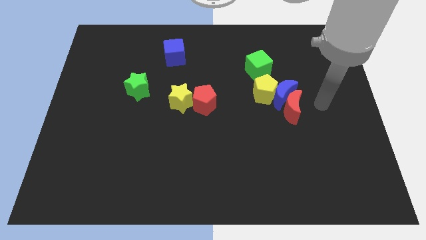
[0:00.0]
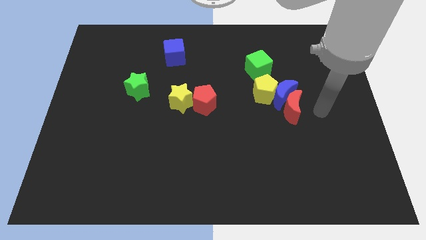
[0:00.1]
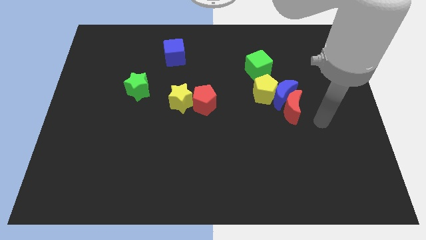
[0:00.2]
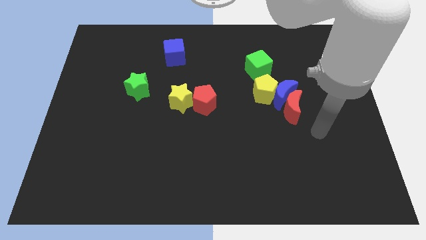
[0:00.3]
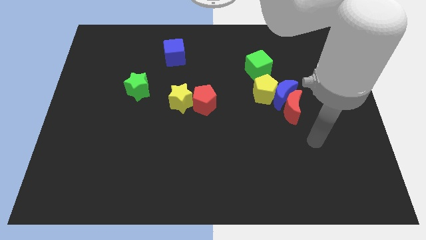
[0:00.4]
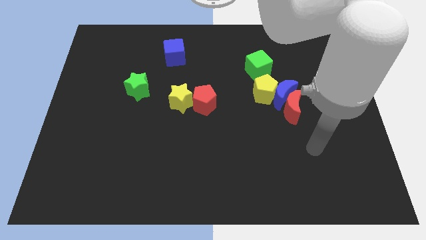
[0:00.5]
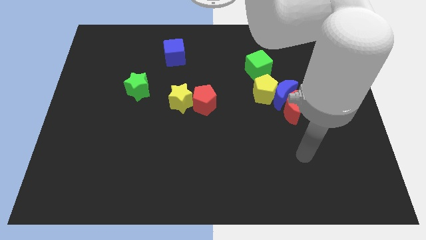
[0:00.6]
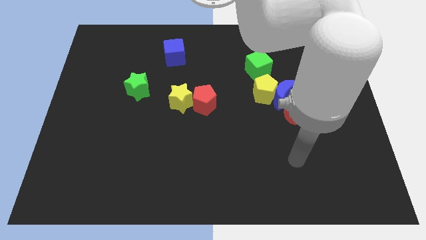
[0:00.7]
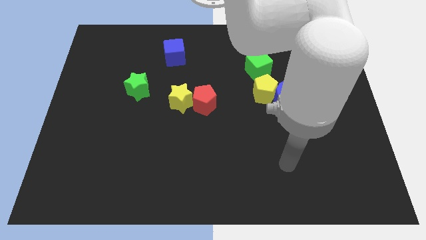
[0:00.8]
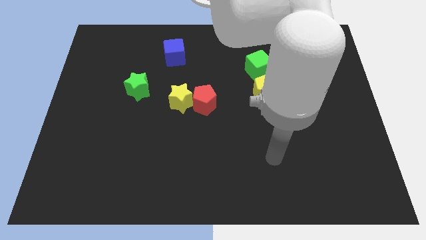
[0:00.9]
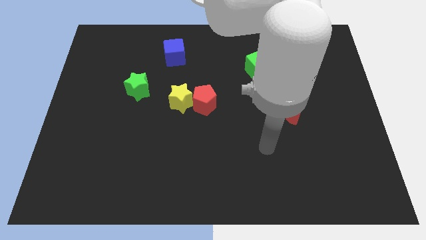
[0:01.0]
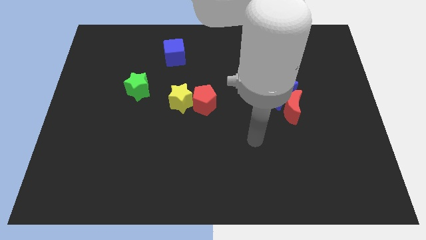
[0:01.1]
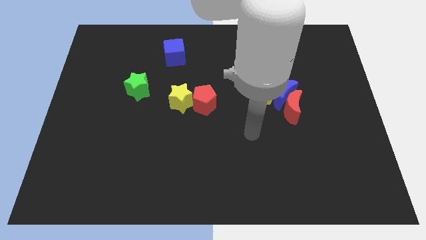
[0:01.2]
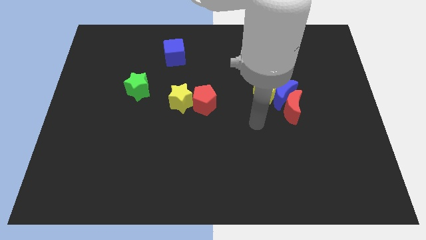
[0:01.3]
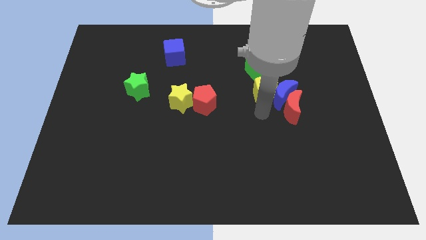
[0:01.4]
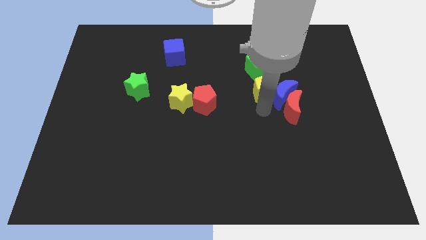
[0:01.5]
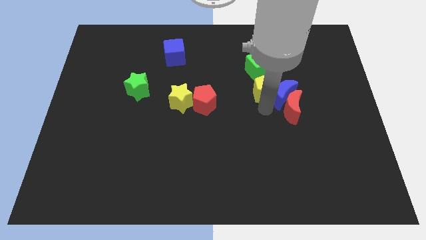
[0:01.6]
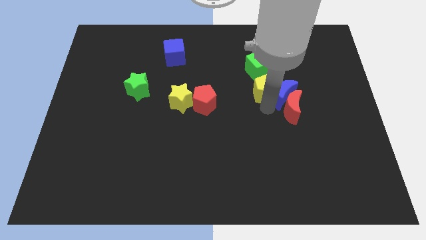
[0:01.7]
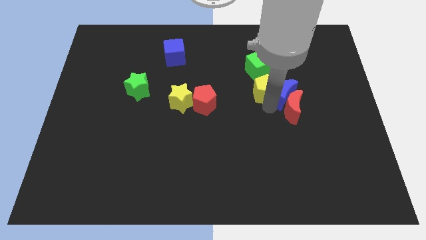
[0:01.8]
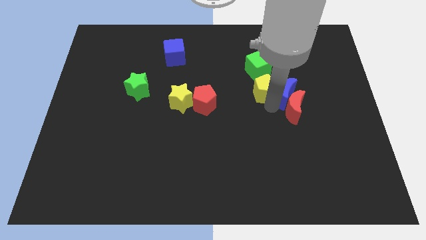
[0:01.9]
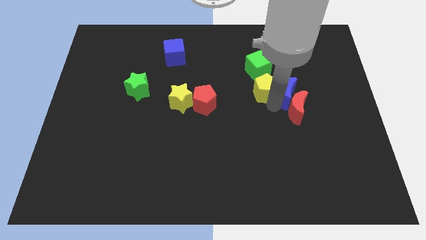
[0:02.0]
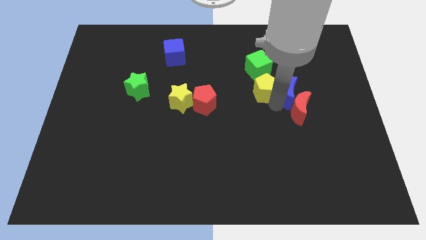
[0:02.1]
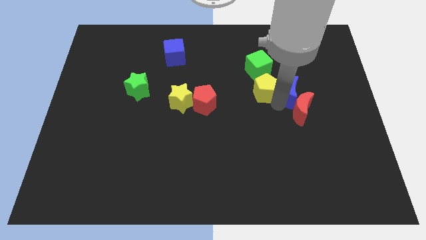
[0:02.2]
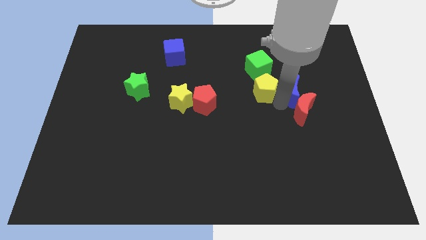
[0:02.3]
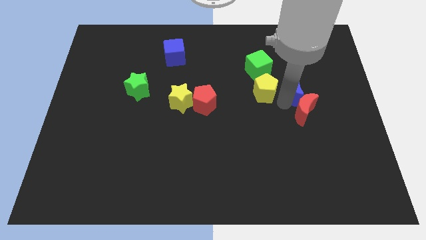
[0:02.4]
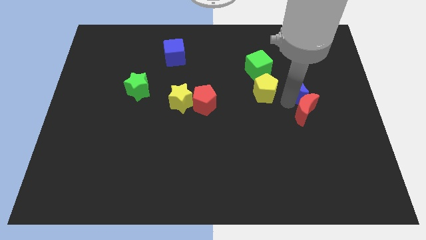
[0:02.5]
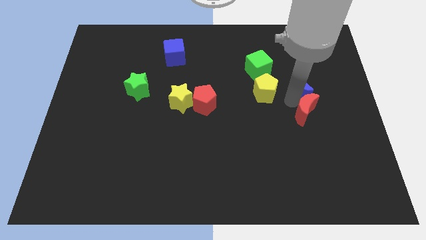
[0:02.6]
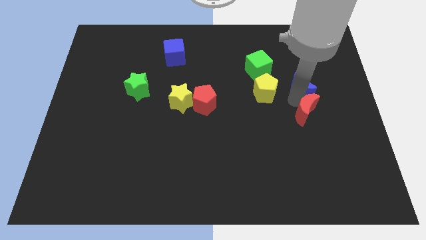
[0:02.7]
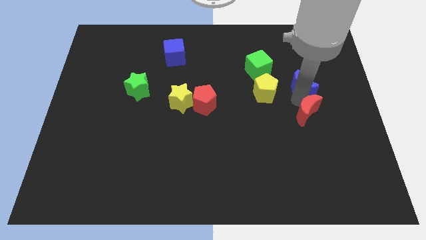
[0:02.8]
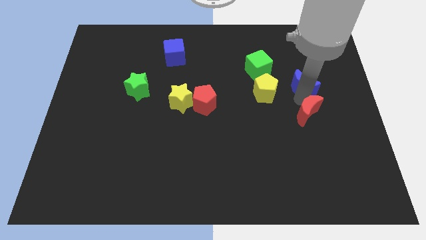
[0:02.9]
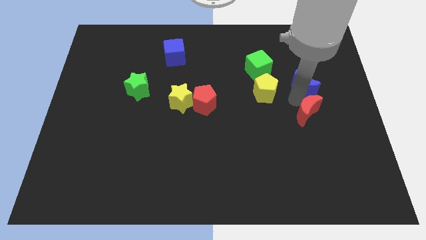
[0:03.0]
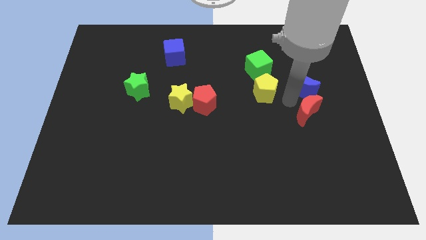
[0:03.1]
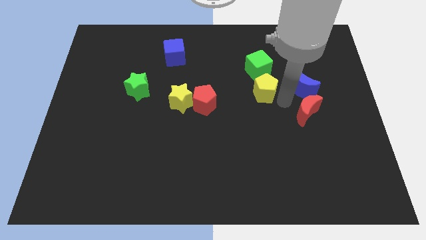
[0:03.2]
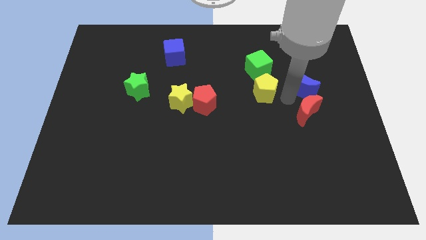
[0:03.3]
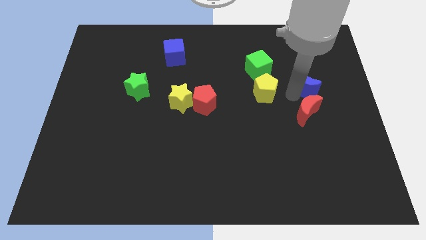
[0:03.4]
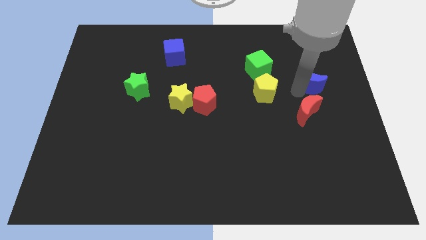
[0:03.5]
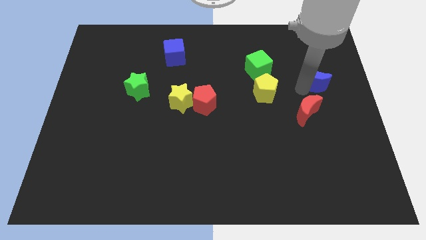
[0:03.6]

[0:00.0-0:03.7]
separate the blue moon from the red moon and yellow pentagon

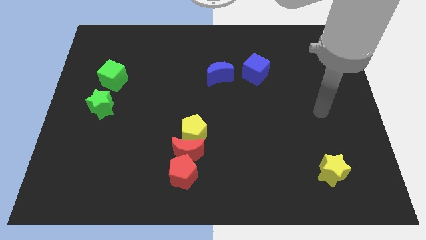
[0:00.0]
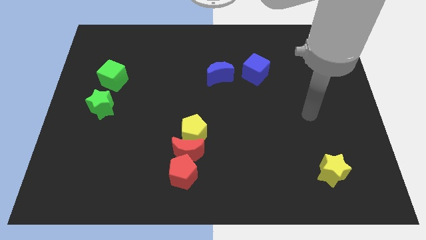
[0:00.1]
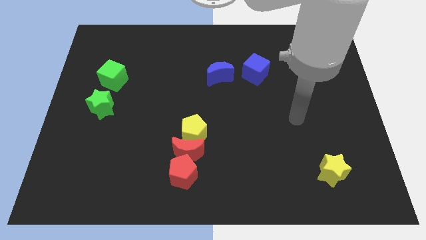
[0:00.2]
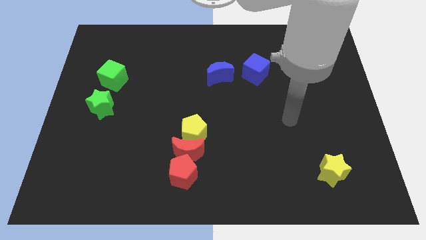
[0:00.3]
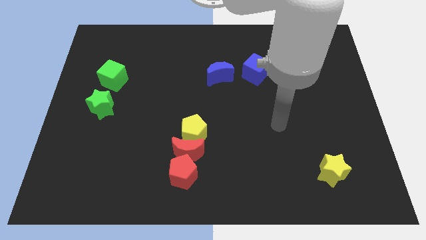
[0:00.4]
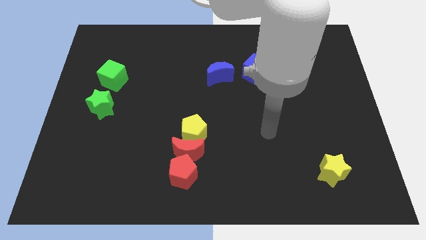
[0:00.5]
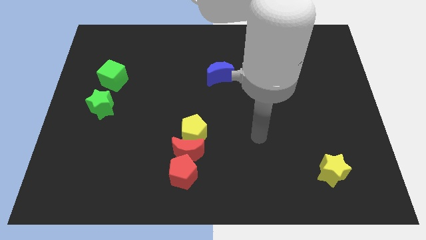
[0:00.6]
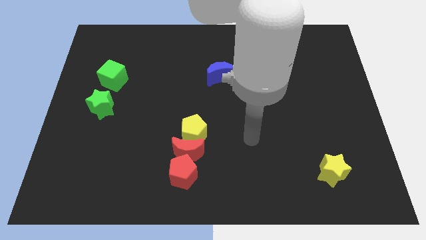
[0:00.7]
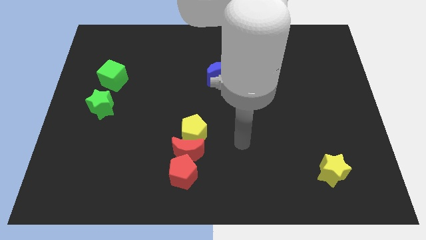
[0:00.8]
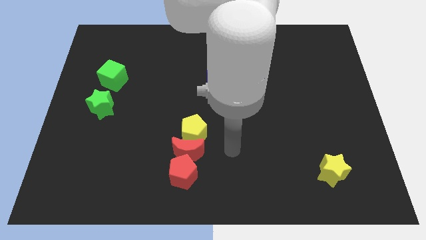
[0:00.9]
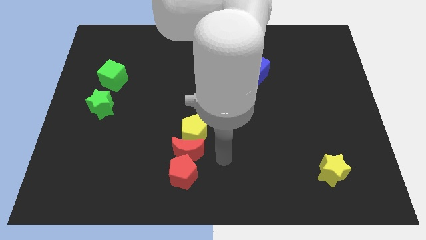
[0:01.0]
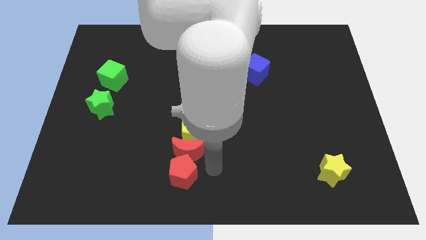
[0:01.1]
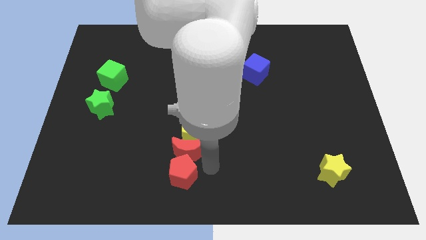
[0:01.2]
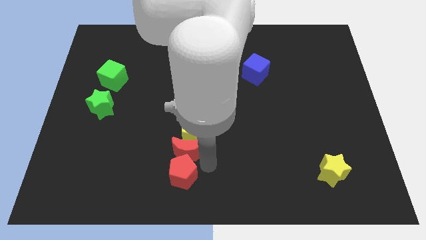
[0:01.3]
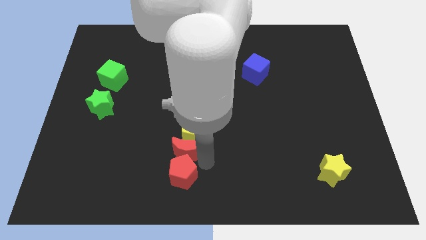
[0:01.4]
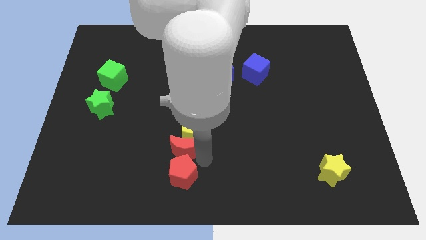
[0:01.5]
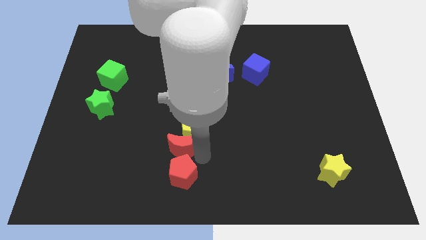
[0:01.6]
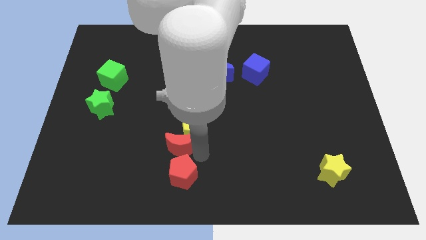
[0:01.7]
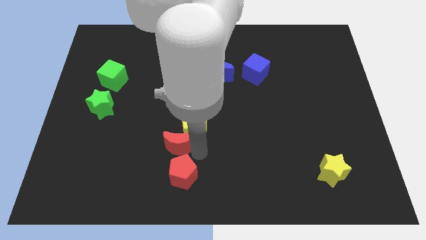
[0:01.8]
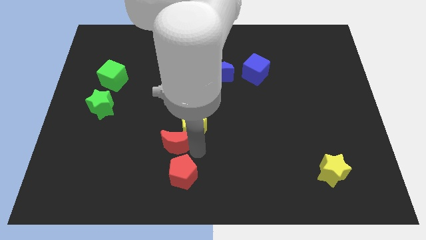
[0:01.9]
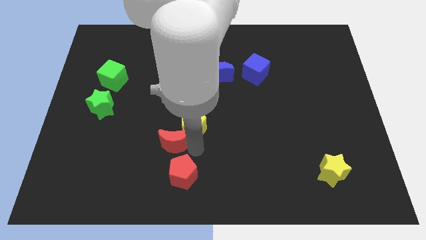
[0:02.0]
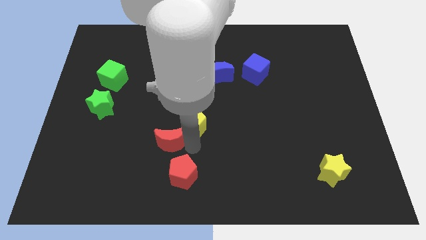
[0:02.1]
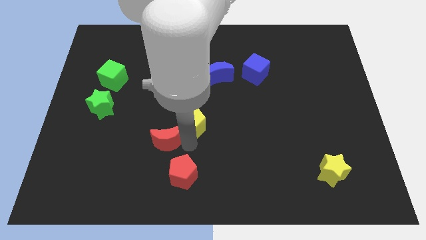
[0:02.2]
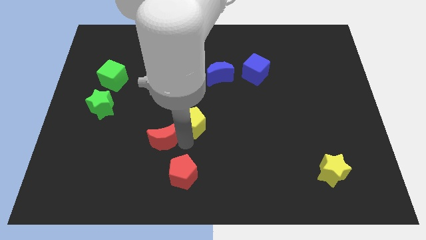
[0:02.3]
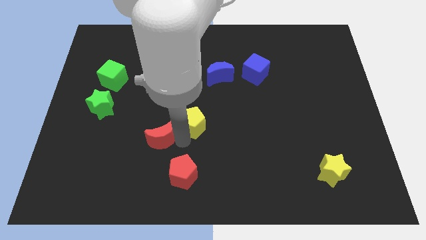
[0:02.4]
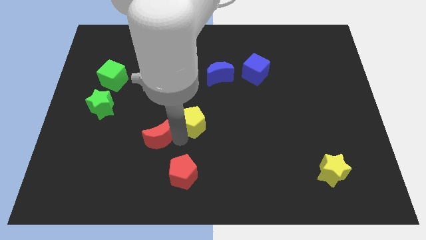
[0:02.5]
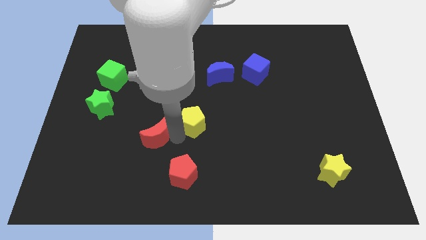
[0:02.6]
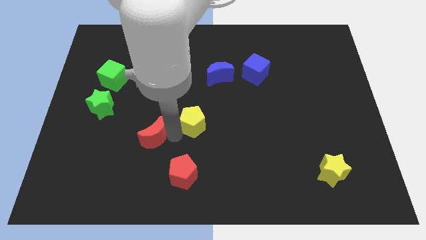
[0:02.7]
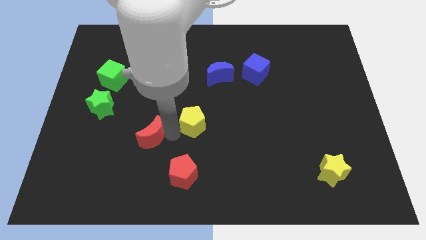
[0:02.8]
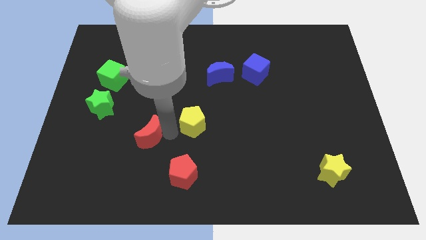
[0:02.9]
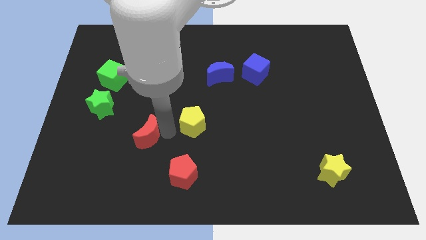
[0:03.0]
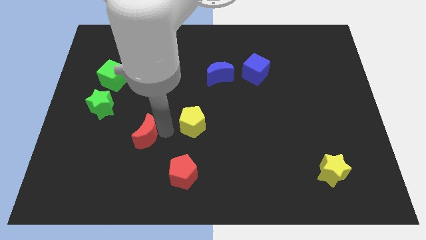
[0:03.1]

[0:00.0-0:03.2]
move the red moon away from the yellow pentagon and red pentagon

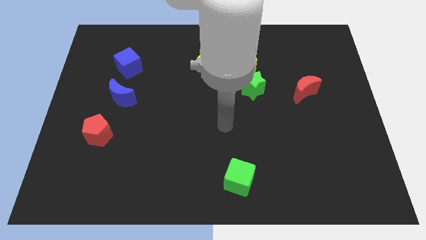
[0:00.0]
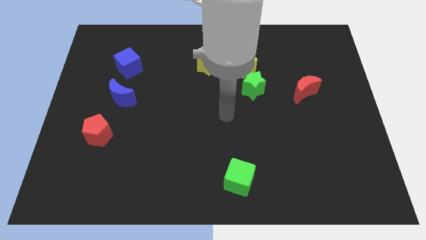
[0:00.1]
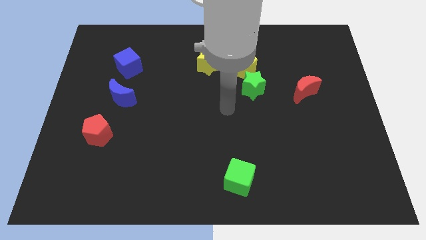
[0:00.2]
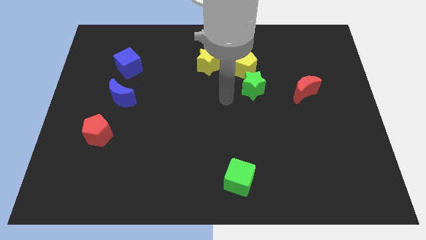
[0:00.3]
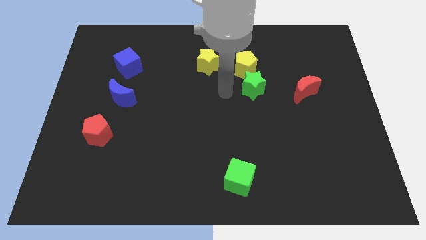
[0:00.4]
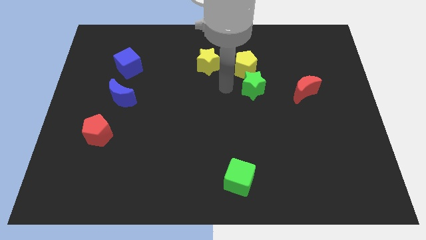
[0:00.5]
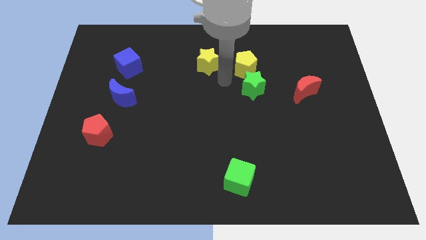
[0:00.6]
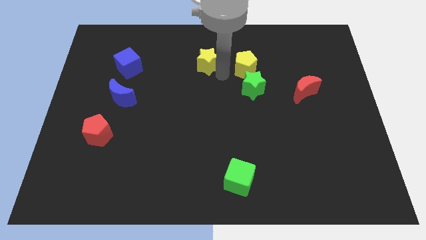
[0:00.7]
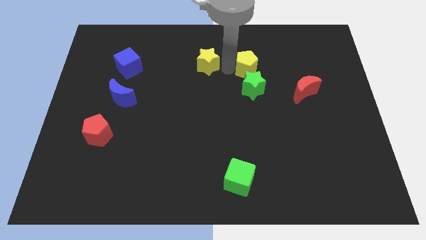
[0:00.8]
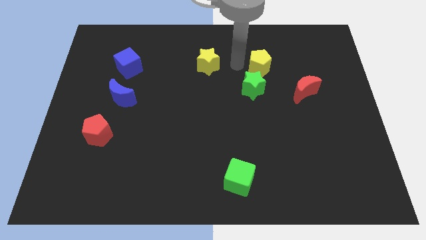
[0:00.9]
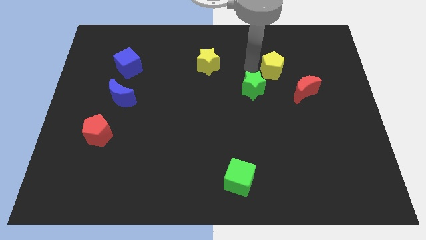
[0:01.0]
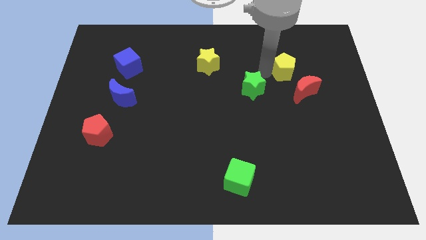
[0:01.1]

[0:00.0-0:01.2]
move the green star away from the yellow pentagon

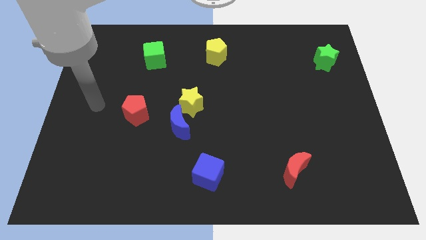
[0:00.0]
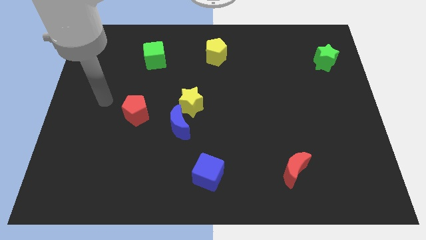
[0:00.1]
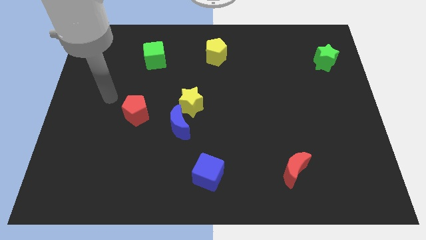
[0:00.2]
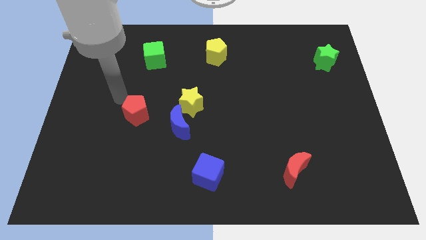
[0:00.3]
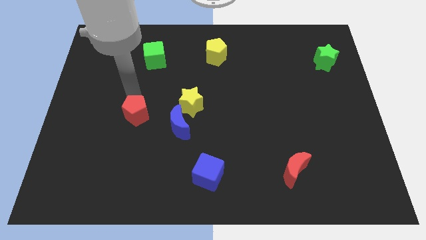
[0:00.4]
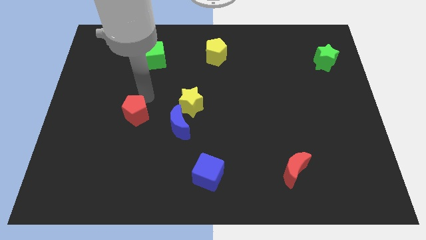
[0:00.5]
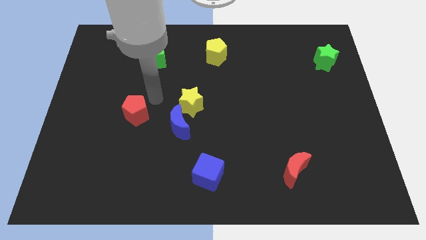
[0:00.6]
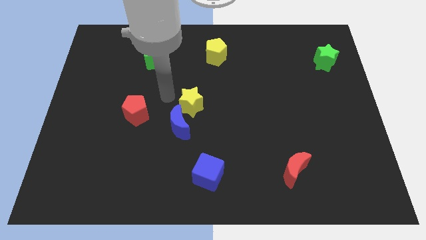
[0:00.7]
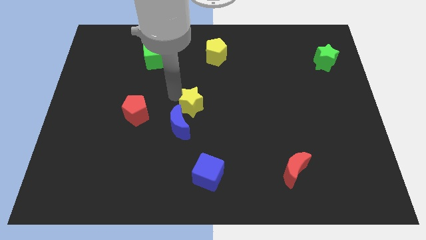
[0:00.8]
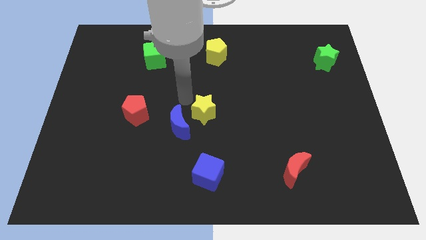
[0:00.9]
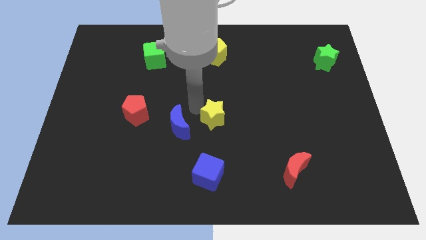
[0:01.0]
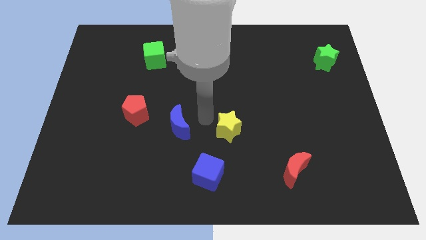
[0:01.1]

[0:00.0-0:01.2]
move the blue moon away from the yellow star
